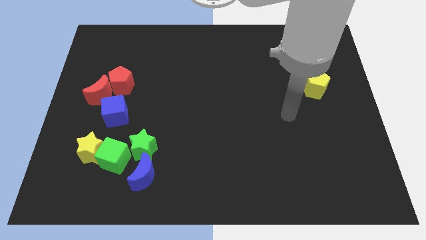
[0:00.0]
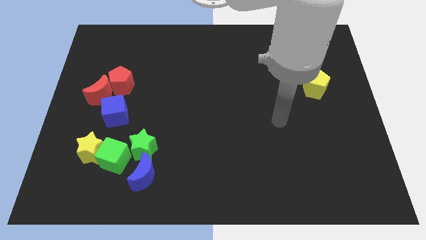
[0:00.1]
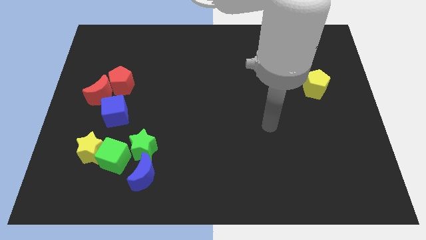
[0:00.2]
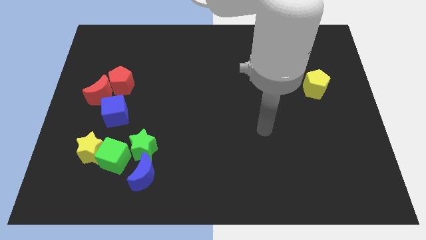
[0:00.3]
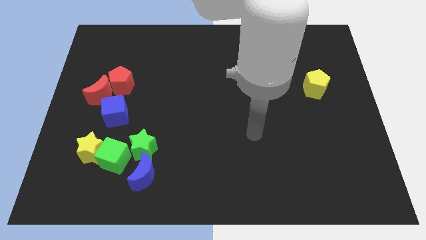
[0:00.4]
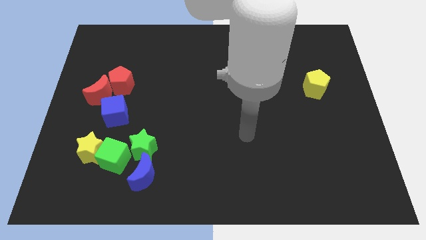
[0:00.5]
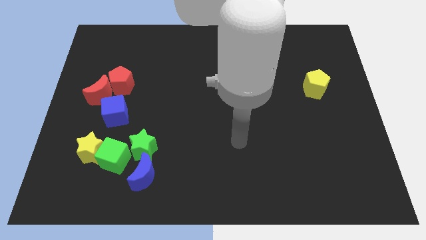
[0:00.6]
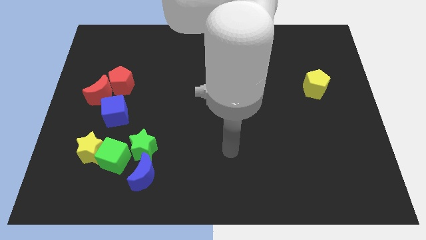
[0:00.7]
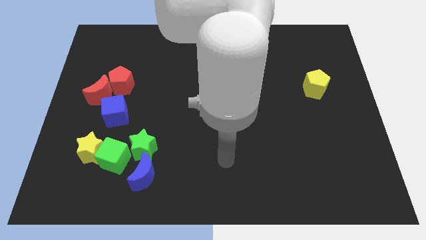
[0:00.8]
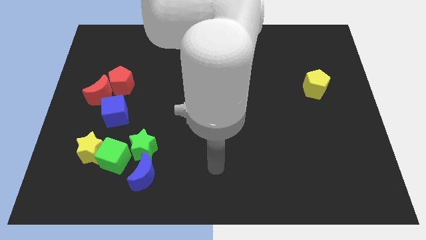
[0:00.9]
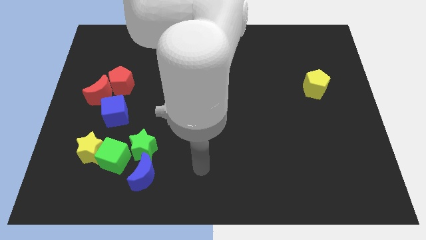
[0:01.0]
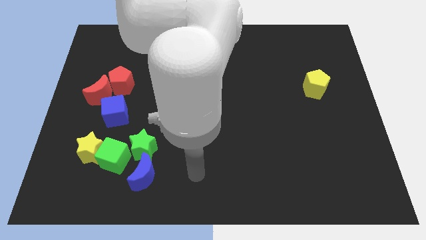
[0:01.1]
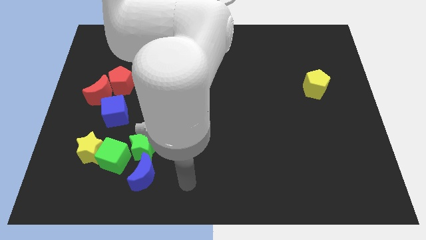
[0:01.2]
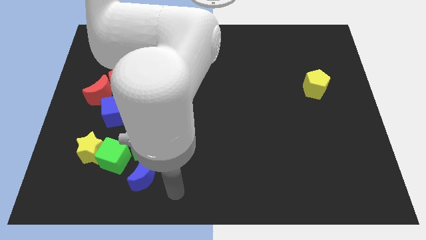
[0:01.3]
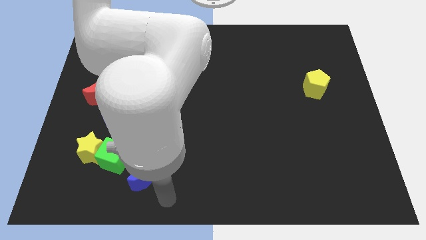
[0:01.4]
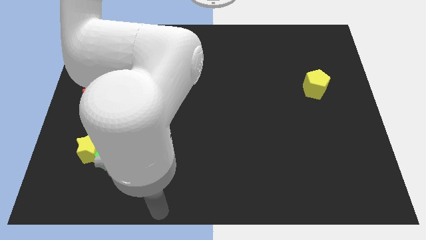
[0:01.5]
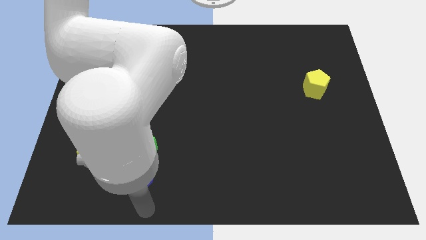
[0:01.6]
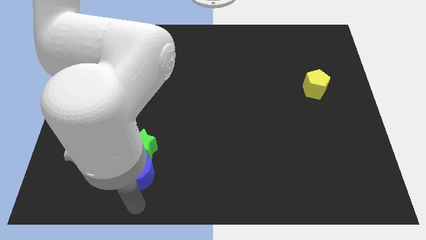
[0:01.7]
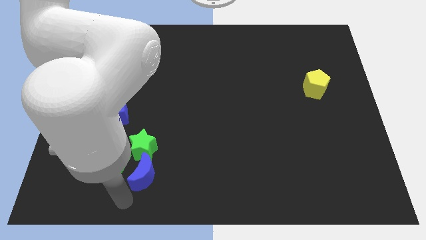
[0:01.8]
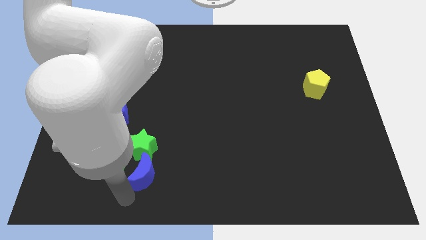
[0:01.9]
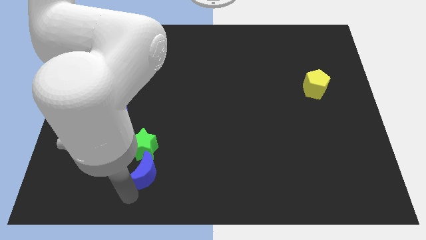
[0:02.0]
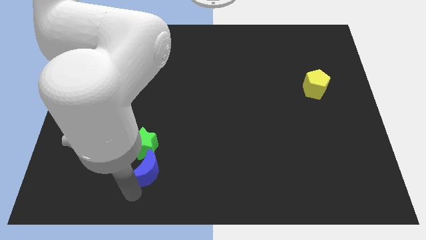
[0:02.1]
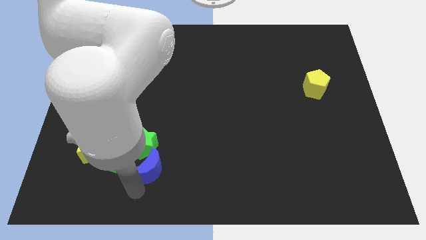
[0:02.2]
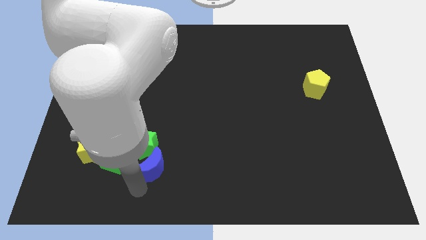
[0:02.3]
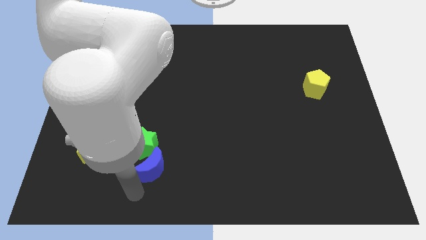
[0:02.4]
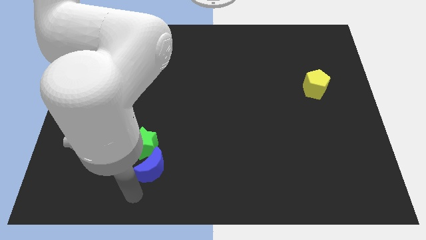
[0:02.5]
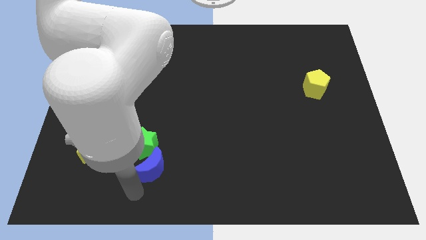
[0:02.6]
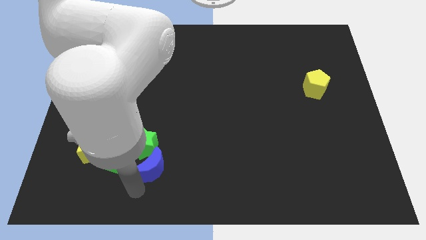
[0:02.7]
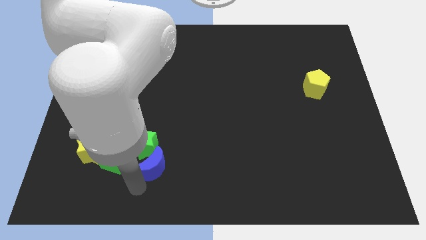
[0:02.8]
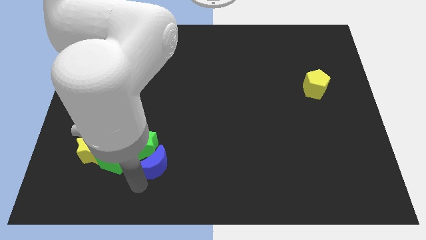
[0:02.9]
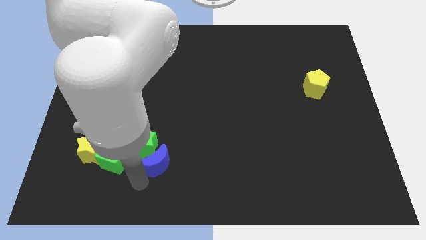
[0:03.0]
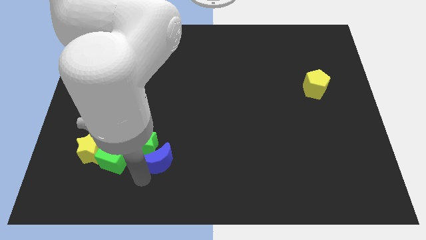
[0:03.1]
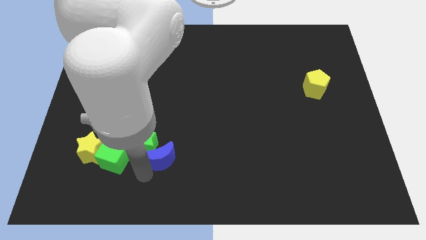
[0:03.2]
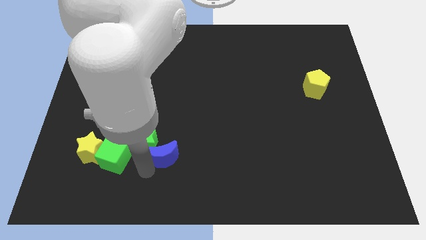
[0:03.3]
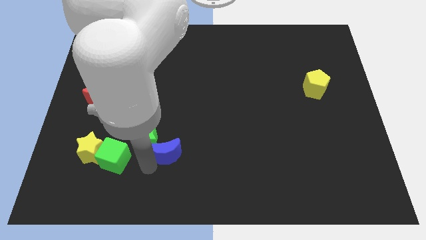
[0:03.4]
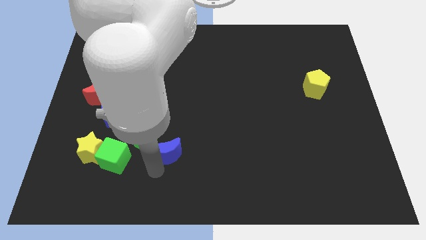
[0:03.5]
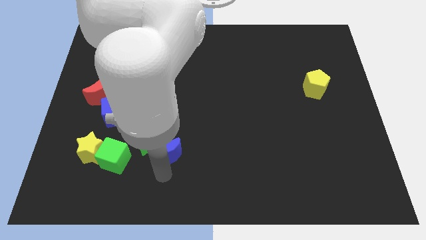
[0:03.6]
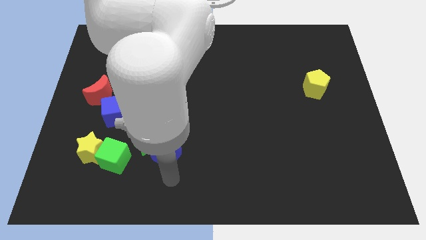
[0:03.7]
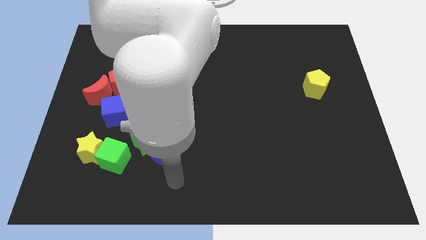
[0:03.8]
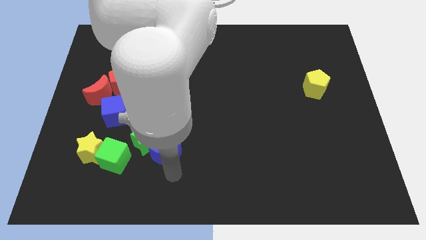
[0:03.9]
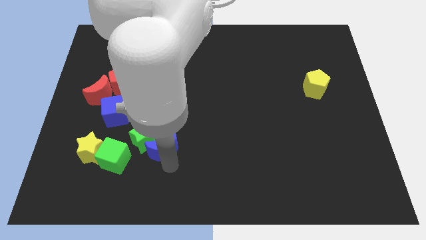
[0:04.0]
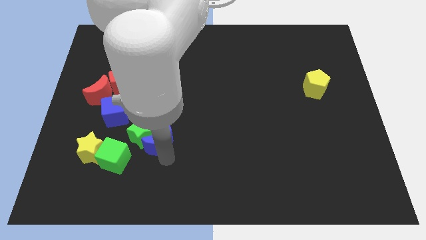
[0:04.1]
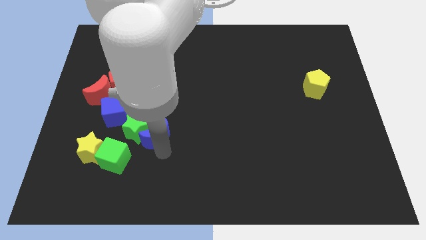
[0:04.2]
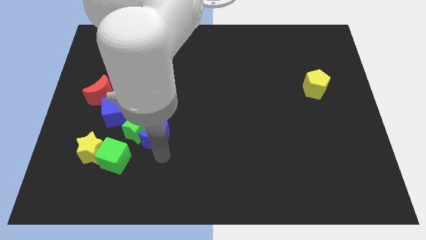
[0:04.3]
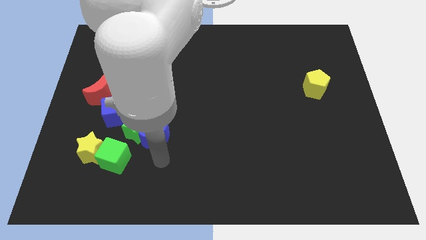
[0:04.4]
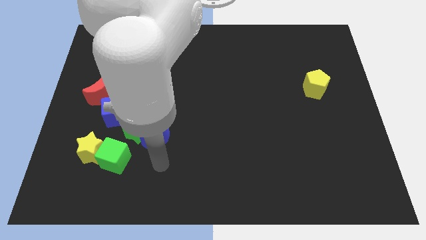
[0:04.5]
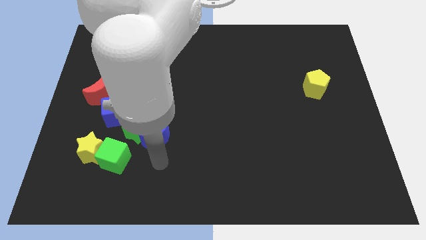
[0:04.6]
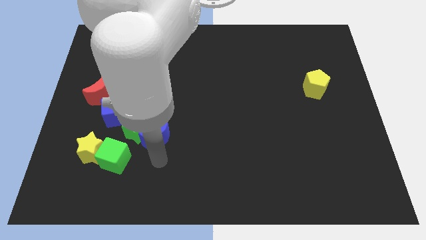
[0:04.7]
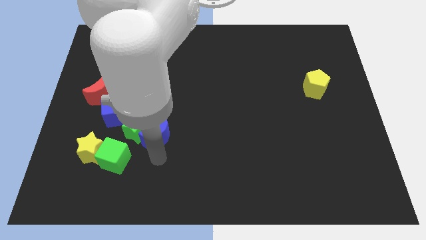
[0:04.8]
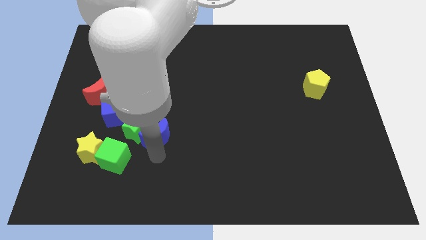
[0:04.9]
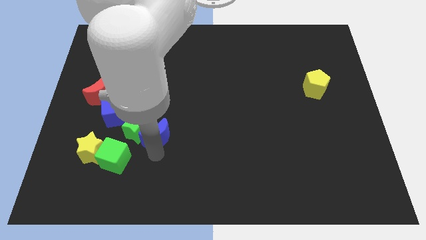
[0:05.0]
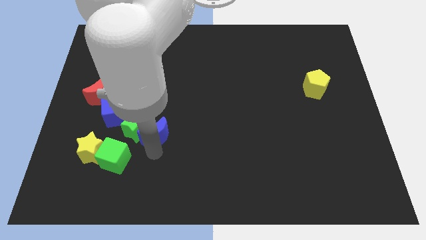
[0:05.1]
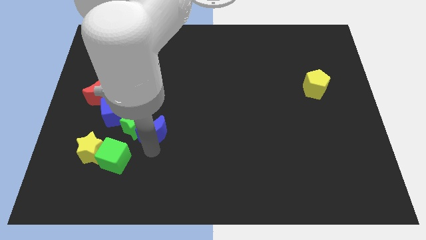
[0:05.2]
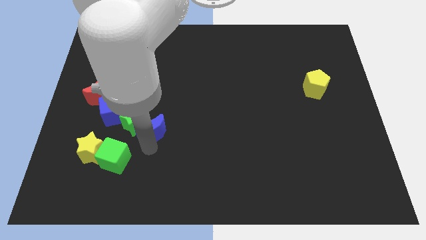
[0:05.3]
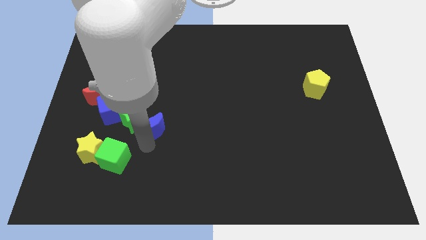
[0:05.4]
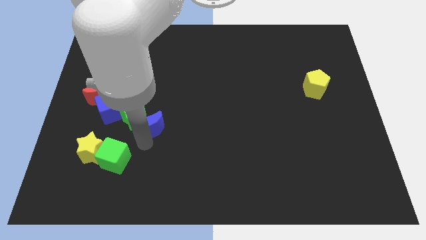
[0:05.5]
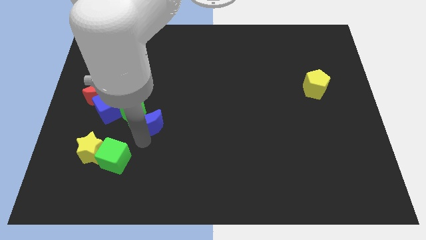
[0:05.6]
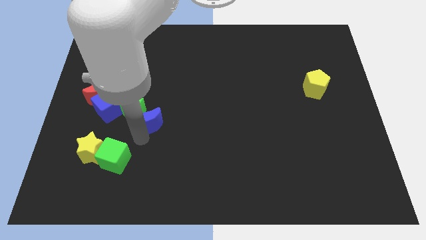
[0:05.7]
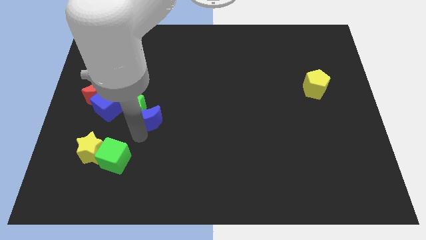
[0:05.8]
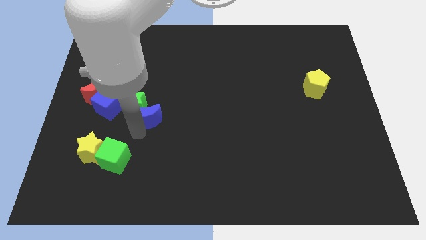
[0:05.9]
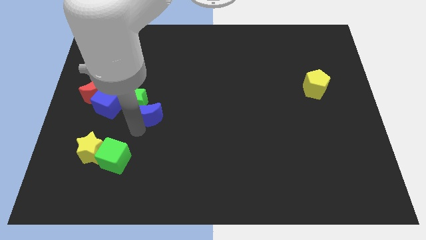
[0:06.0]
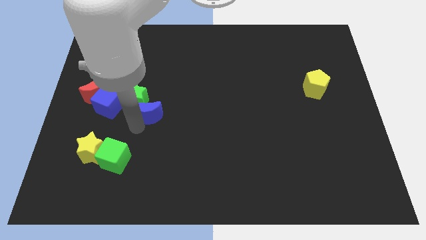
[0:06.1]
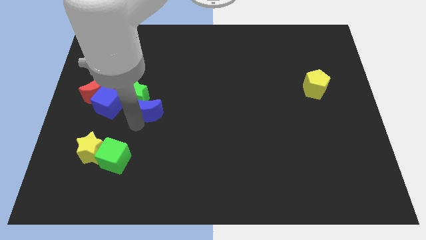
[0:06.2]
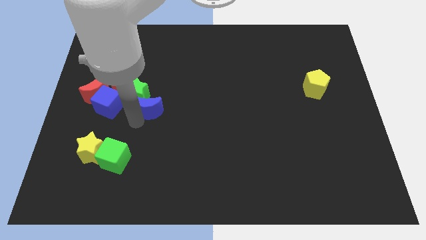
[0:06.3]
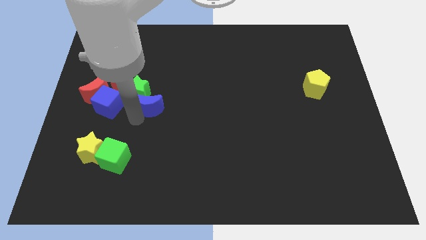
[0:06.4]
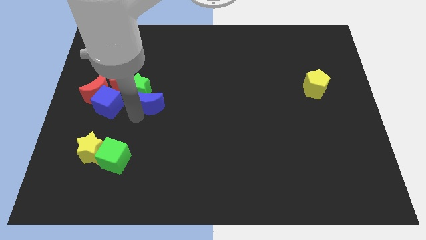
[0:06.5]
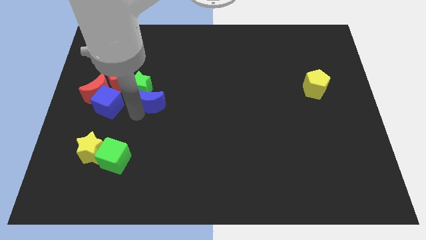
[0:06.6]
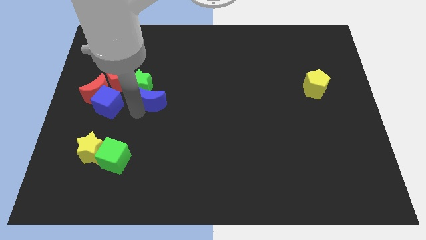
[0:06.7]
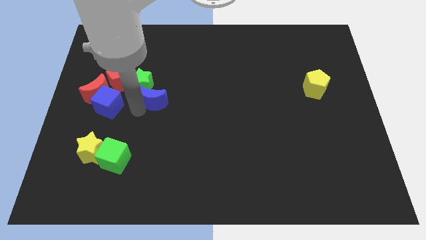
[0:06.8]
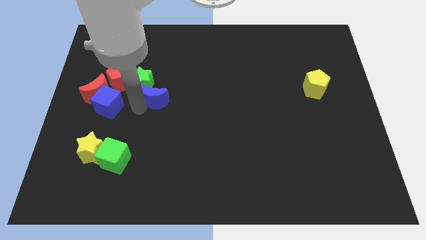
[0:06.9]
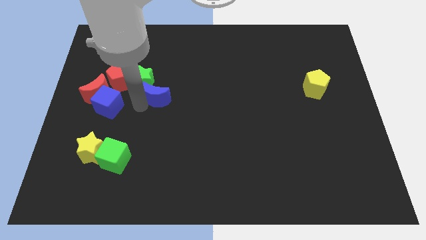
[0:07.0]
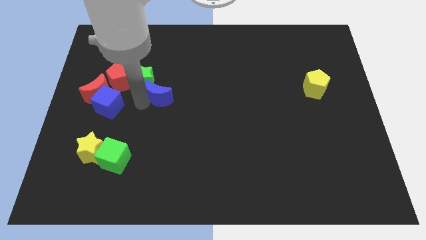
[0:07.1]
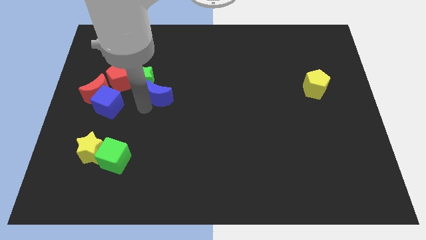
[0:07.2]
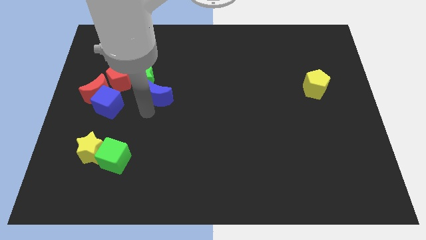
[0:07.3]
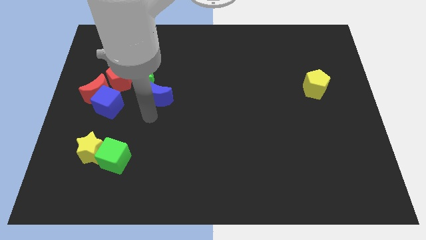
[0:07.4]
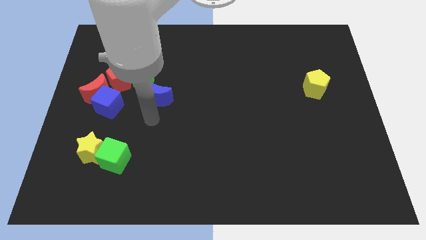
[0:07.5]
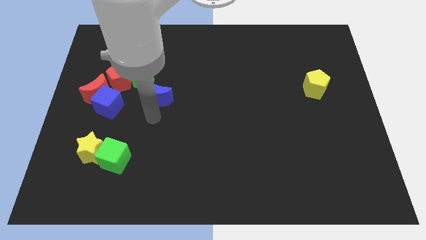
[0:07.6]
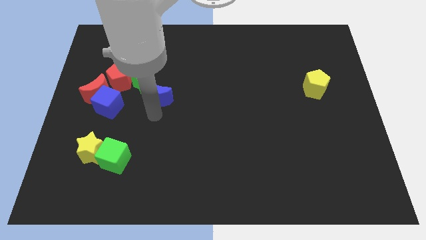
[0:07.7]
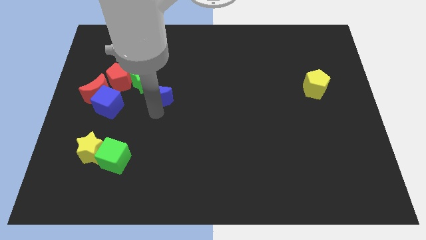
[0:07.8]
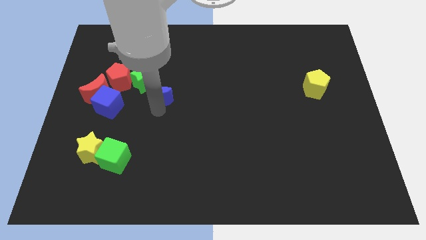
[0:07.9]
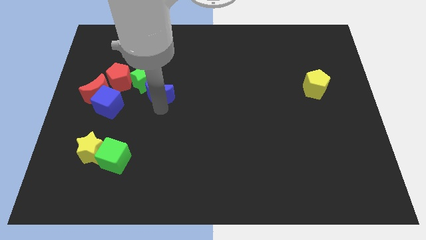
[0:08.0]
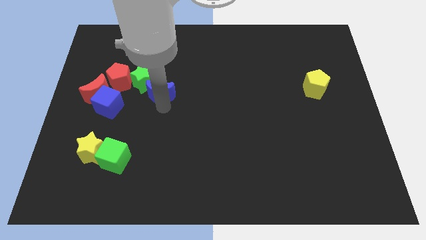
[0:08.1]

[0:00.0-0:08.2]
put the blue moon to the right side of the red pentagon
